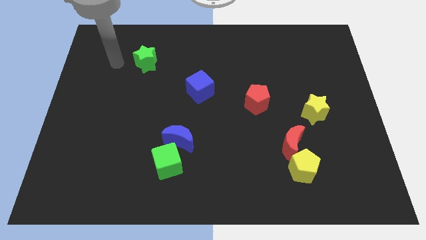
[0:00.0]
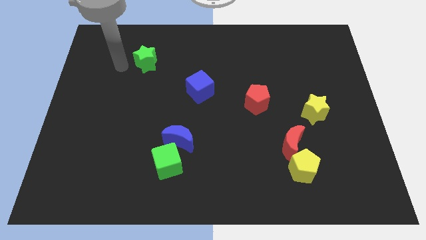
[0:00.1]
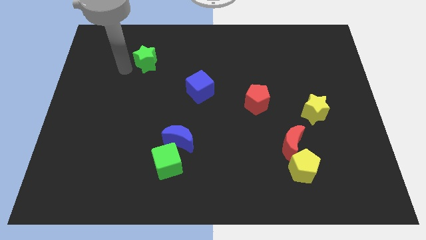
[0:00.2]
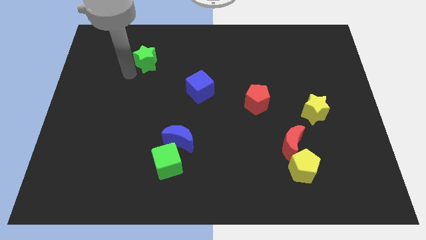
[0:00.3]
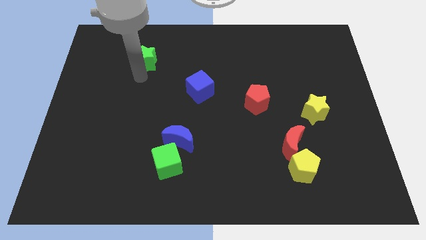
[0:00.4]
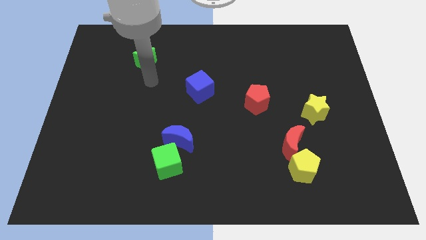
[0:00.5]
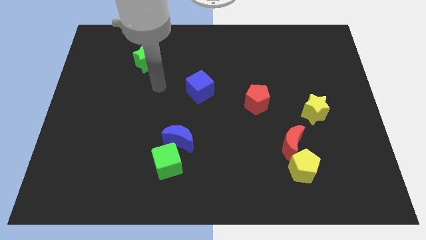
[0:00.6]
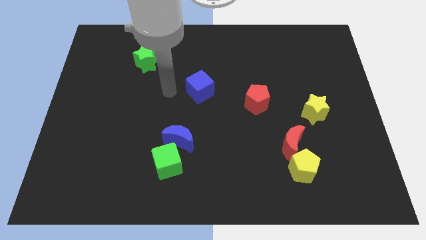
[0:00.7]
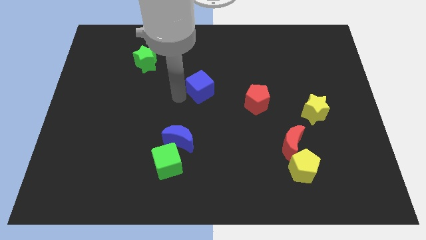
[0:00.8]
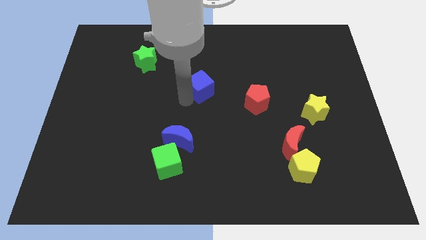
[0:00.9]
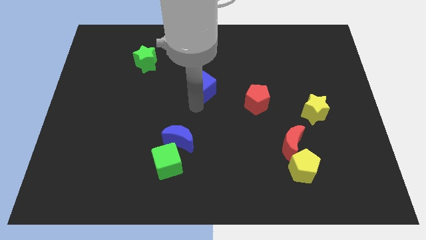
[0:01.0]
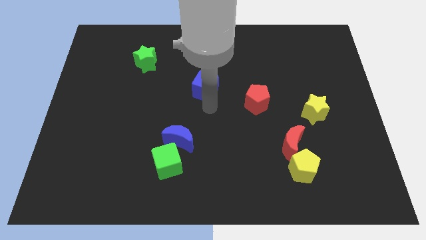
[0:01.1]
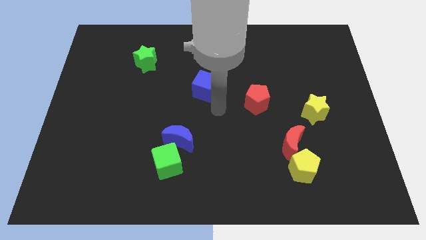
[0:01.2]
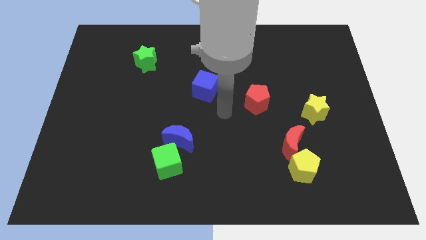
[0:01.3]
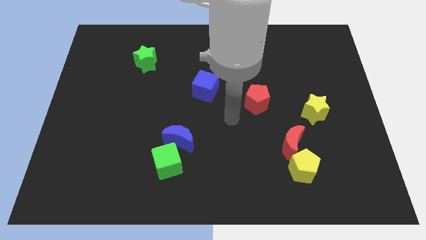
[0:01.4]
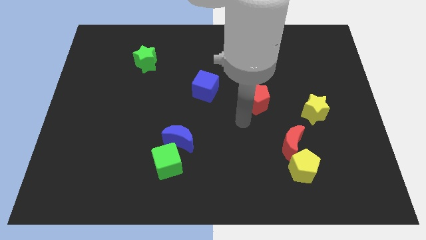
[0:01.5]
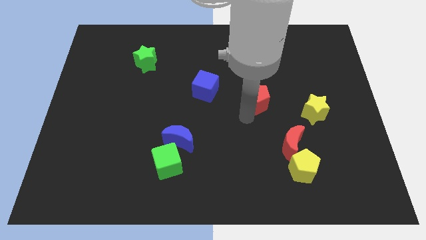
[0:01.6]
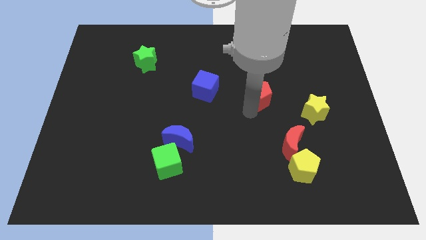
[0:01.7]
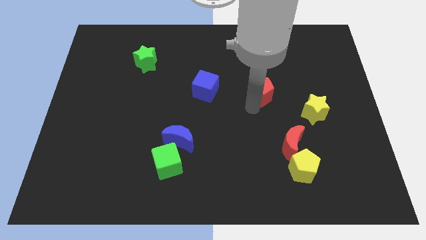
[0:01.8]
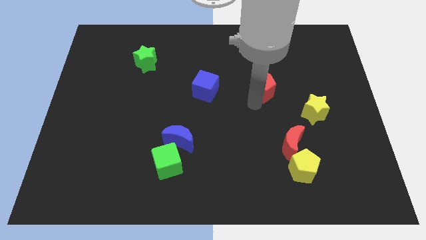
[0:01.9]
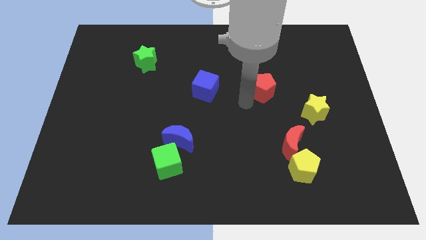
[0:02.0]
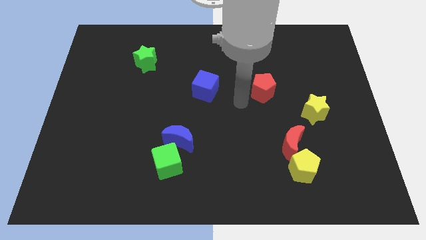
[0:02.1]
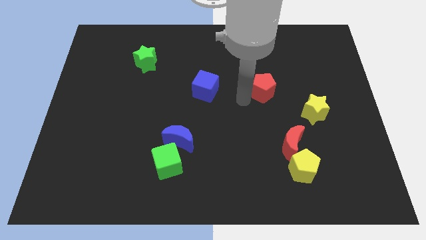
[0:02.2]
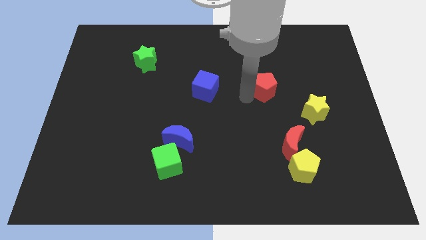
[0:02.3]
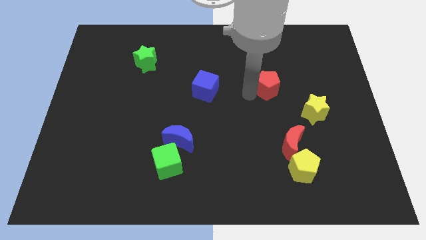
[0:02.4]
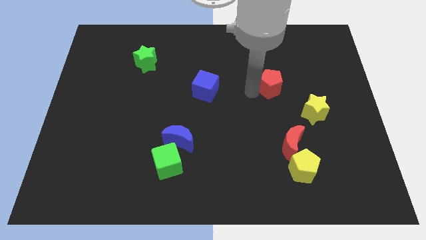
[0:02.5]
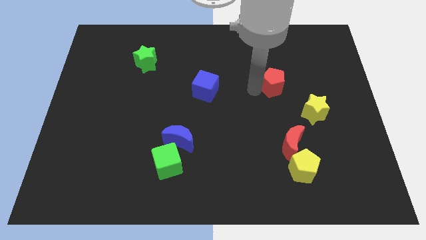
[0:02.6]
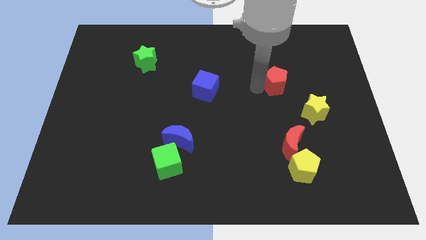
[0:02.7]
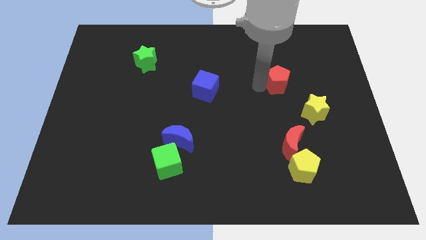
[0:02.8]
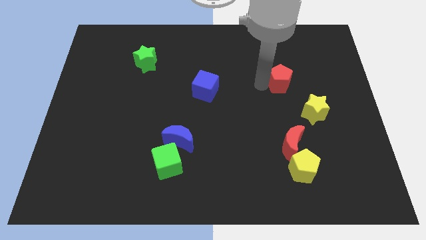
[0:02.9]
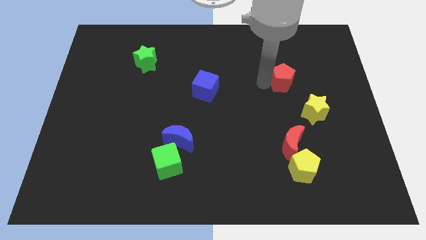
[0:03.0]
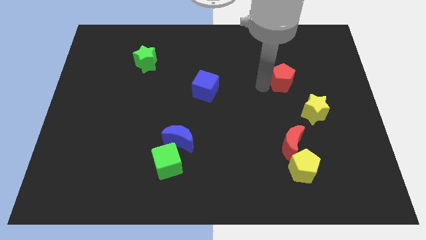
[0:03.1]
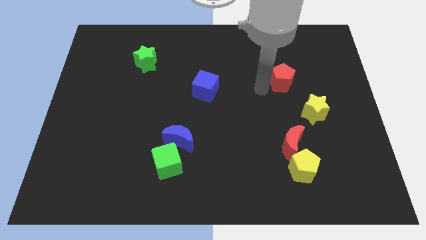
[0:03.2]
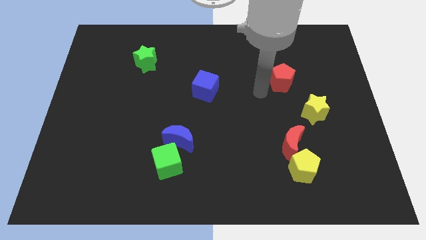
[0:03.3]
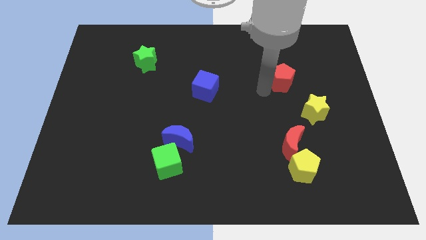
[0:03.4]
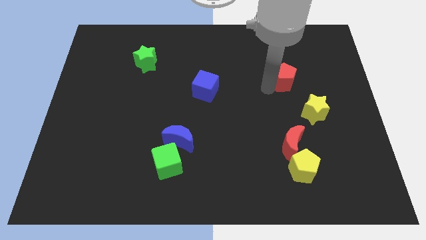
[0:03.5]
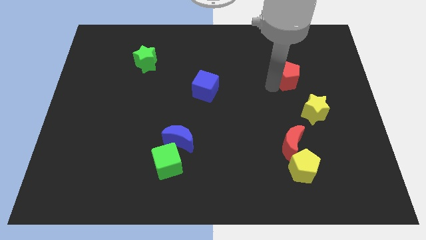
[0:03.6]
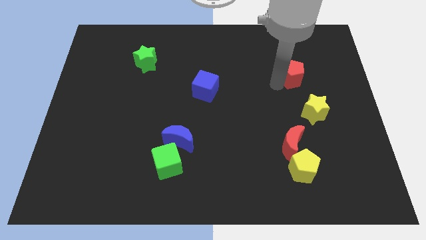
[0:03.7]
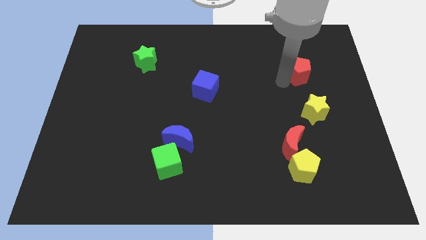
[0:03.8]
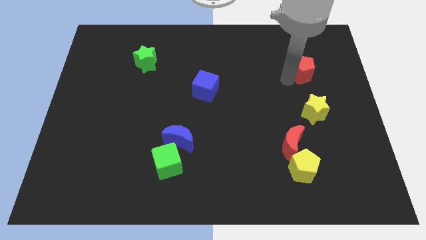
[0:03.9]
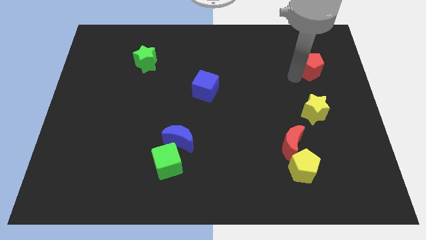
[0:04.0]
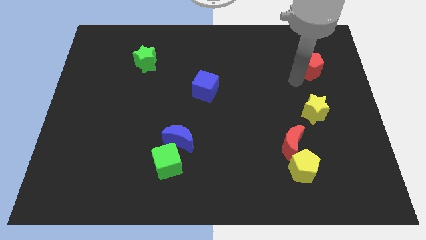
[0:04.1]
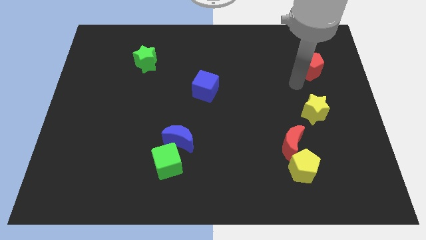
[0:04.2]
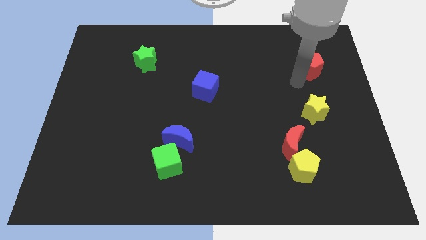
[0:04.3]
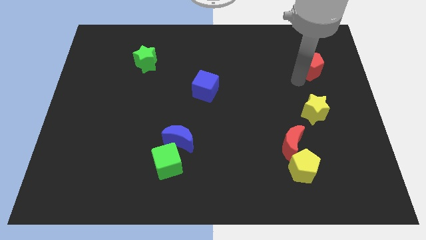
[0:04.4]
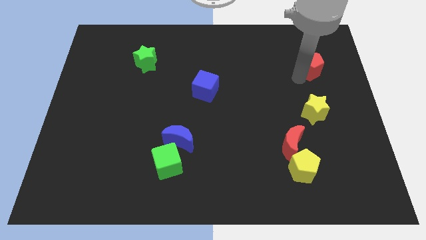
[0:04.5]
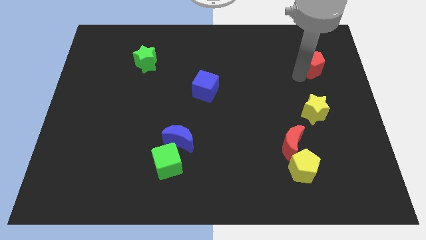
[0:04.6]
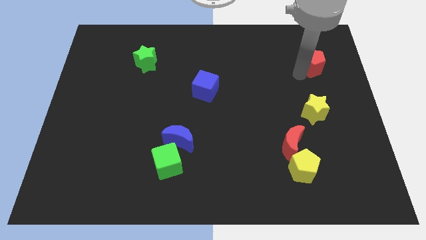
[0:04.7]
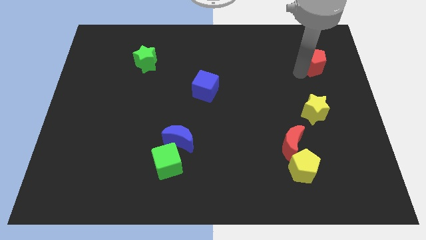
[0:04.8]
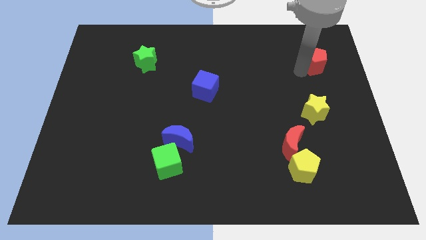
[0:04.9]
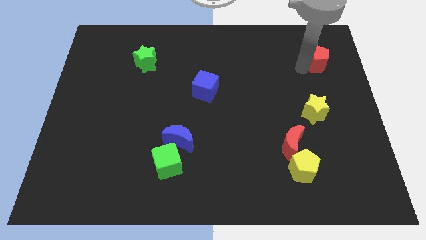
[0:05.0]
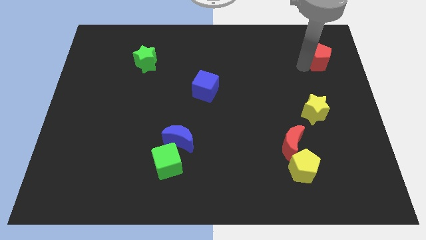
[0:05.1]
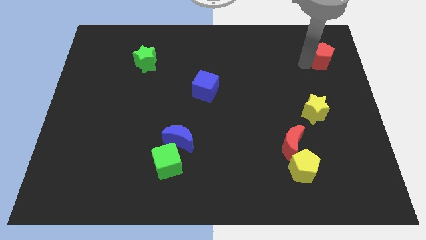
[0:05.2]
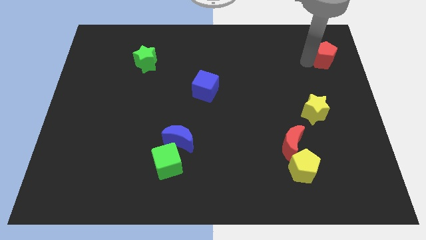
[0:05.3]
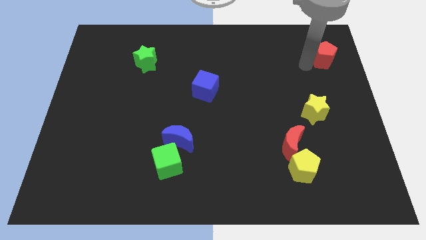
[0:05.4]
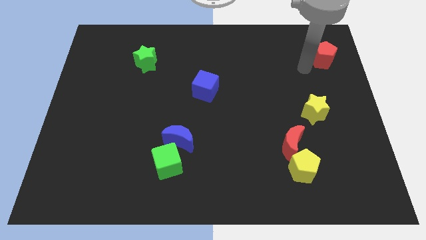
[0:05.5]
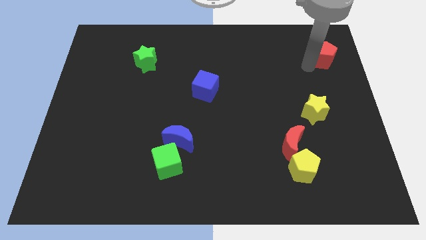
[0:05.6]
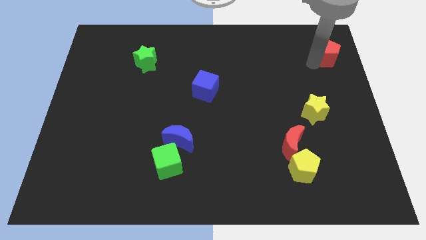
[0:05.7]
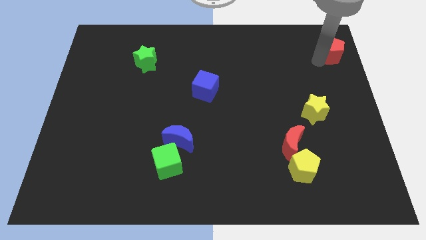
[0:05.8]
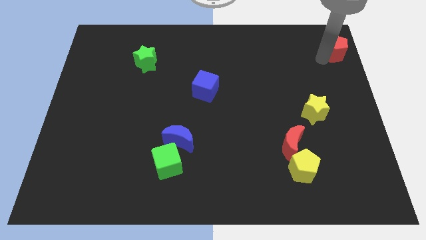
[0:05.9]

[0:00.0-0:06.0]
put the red pentagon to the top right of the board
